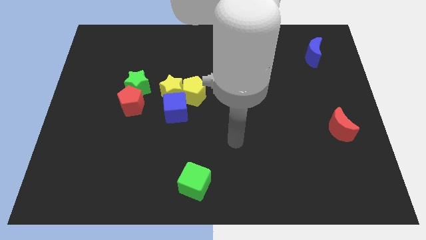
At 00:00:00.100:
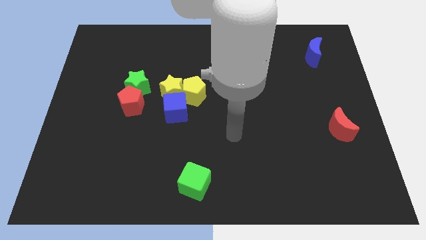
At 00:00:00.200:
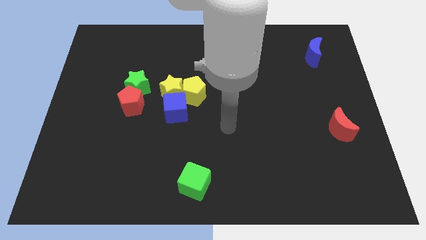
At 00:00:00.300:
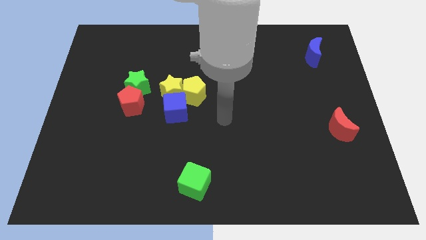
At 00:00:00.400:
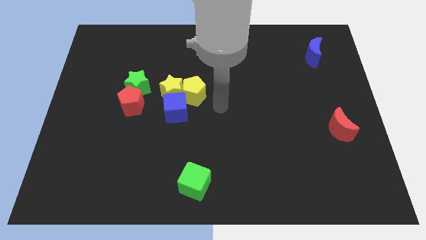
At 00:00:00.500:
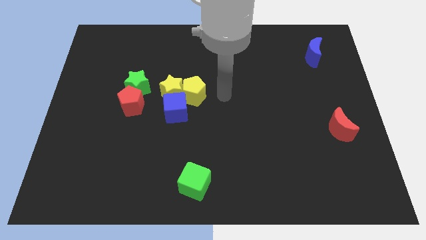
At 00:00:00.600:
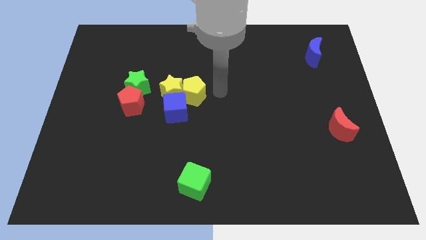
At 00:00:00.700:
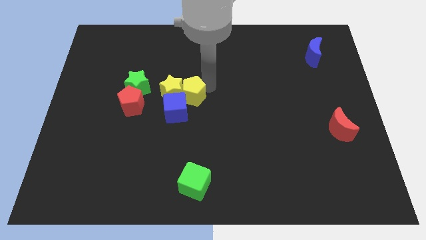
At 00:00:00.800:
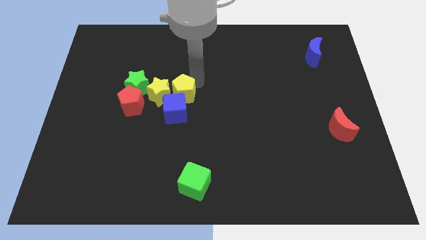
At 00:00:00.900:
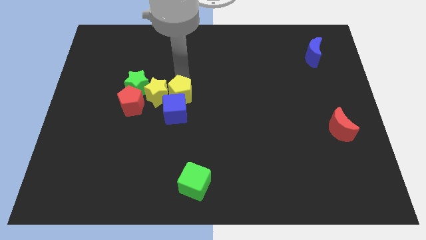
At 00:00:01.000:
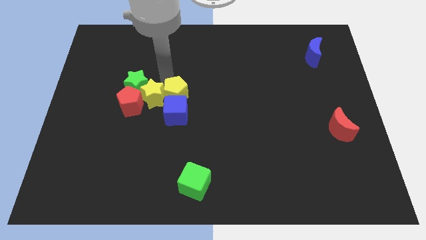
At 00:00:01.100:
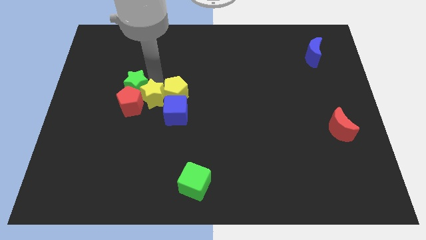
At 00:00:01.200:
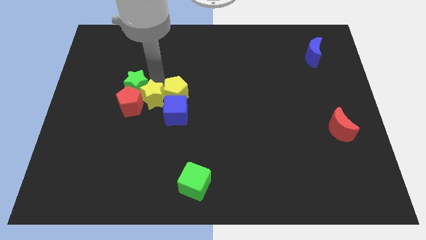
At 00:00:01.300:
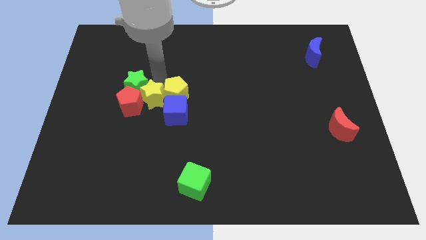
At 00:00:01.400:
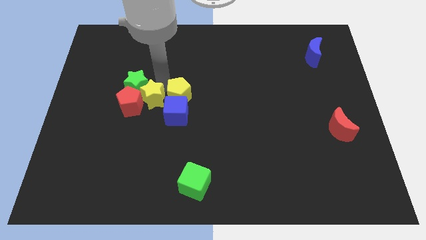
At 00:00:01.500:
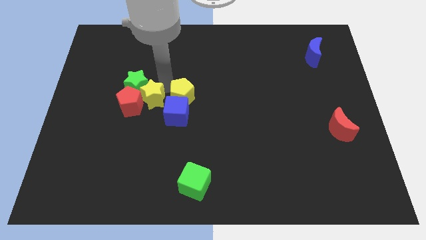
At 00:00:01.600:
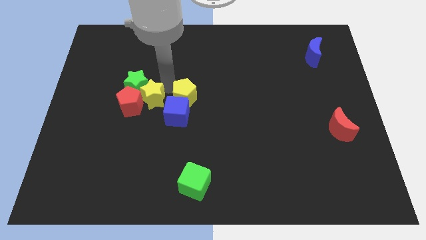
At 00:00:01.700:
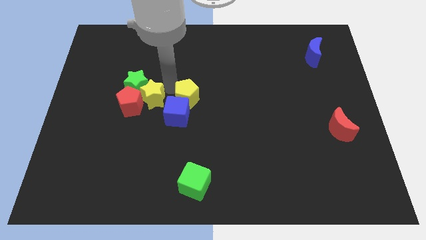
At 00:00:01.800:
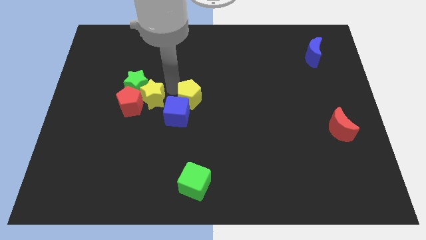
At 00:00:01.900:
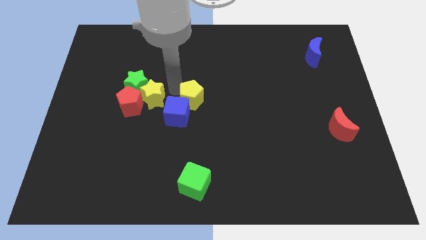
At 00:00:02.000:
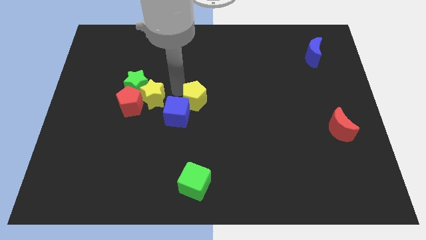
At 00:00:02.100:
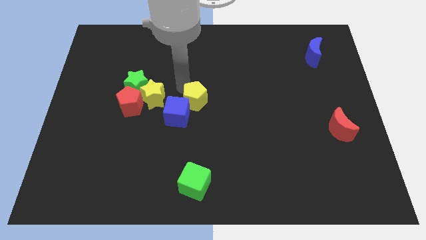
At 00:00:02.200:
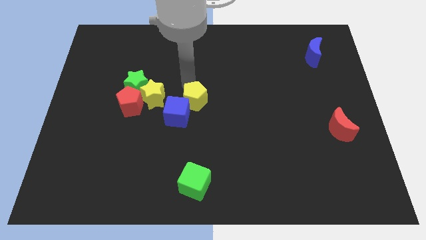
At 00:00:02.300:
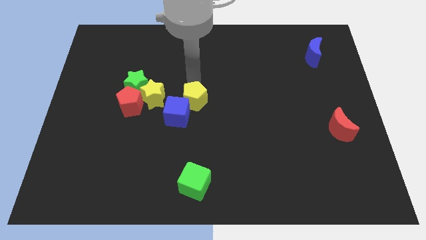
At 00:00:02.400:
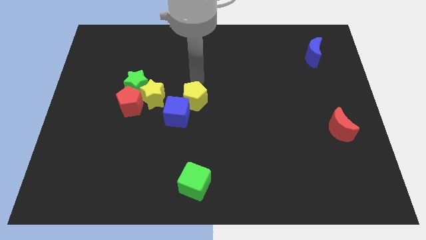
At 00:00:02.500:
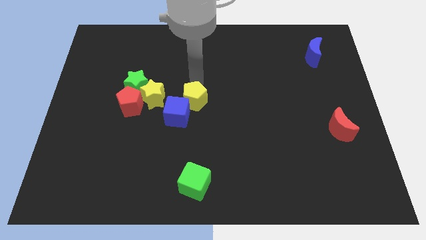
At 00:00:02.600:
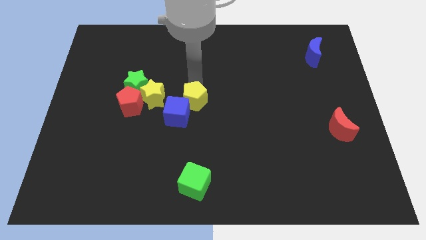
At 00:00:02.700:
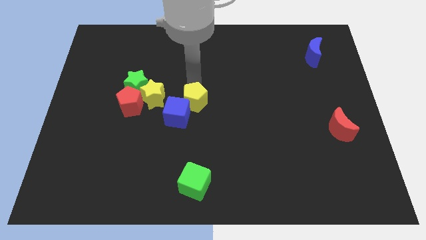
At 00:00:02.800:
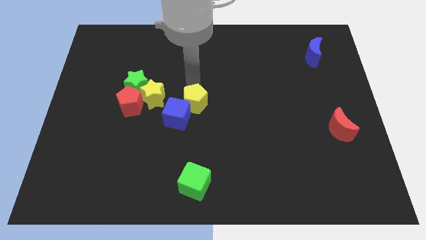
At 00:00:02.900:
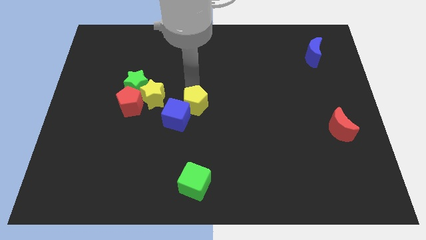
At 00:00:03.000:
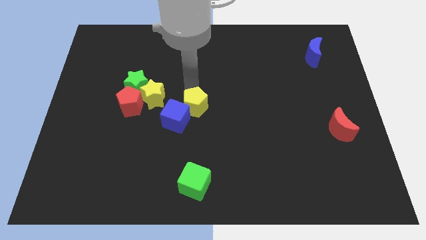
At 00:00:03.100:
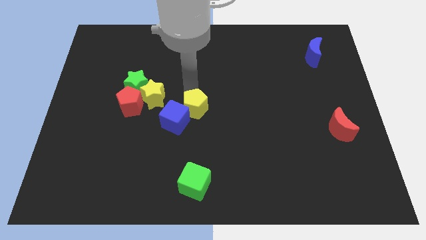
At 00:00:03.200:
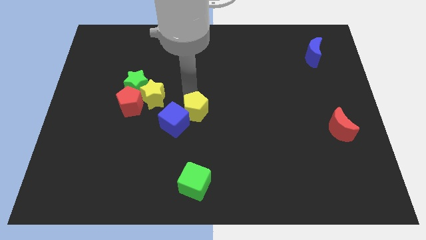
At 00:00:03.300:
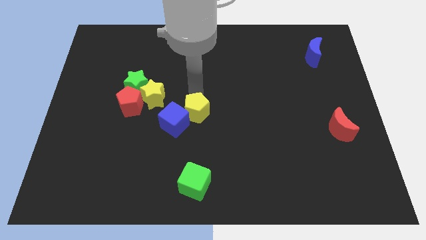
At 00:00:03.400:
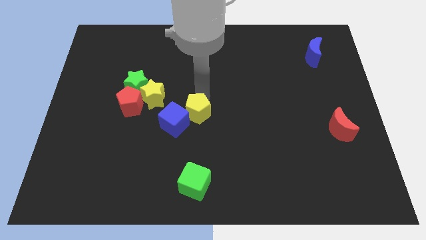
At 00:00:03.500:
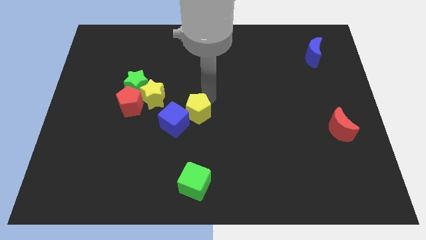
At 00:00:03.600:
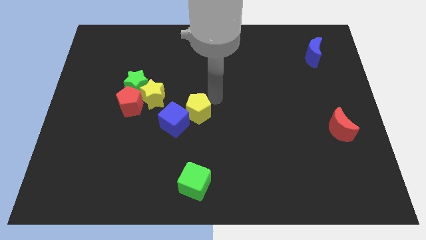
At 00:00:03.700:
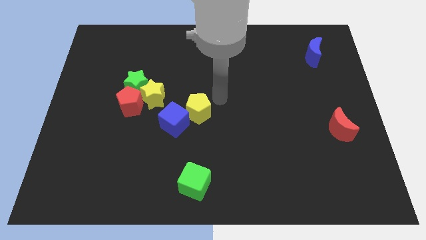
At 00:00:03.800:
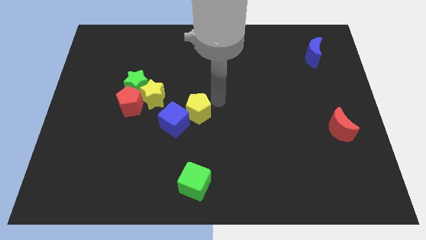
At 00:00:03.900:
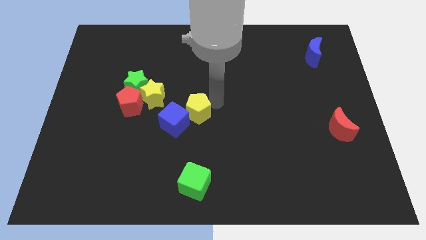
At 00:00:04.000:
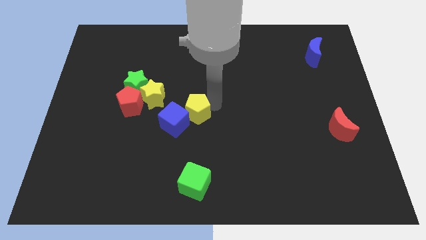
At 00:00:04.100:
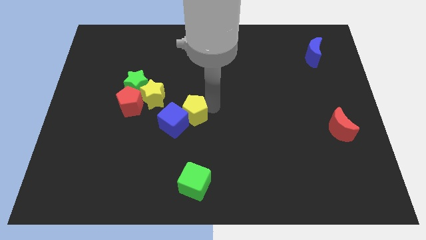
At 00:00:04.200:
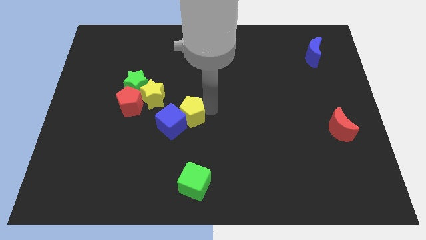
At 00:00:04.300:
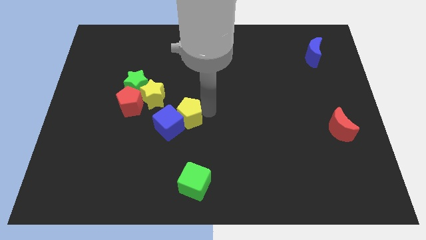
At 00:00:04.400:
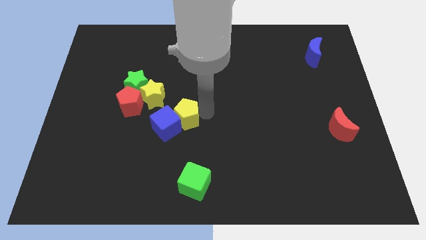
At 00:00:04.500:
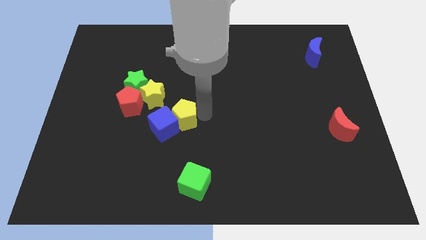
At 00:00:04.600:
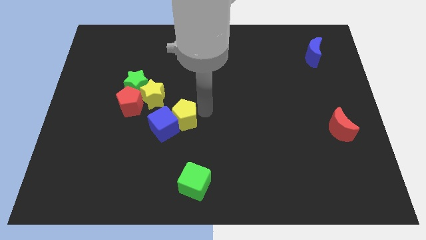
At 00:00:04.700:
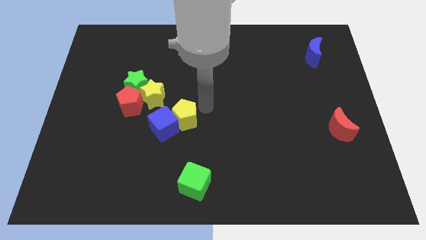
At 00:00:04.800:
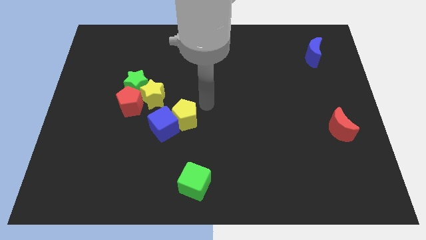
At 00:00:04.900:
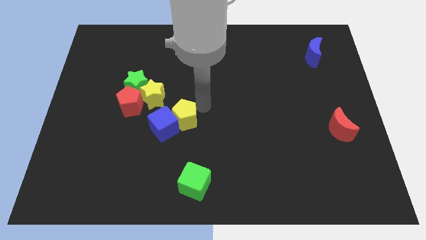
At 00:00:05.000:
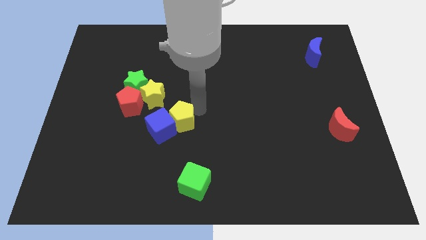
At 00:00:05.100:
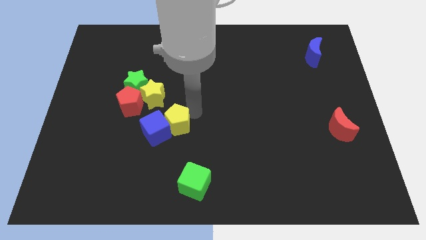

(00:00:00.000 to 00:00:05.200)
move the yellow pentagon down and to the left diagonally a little

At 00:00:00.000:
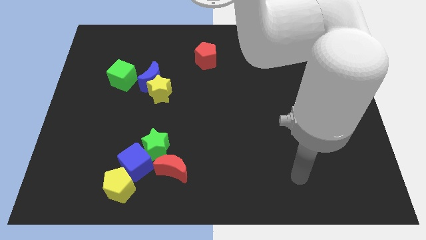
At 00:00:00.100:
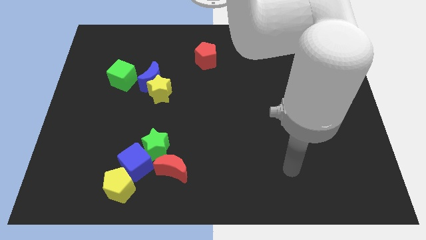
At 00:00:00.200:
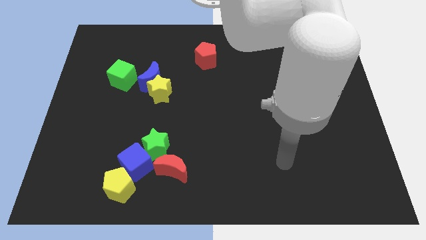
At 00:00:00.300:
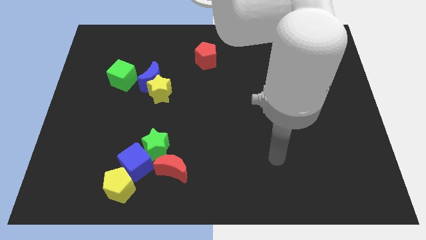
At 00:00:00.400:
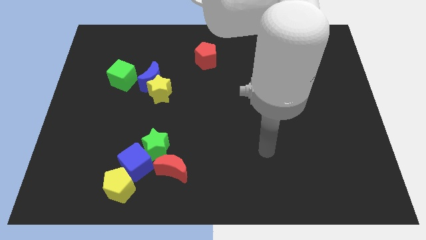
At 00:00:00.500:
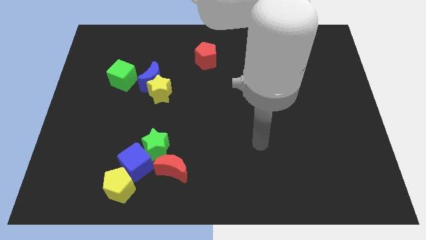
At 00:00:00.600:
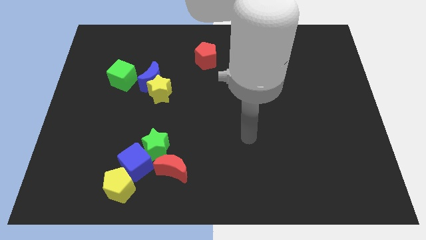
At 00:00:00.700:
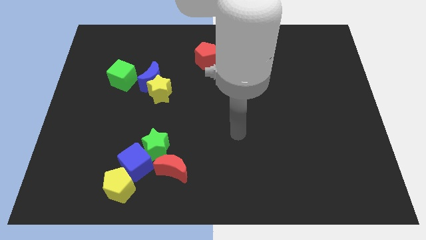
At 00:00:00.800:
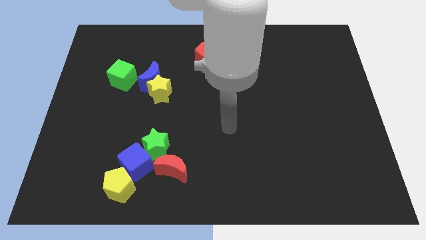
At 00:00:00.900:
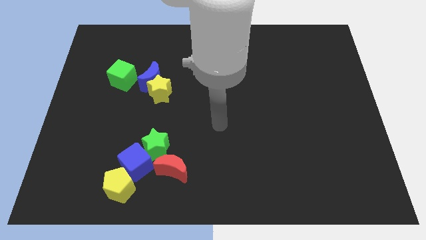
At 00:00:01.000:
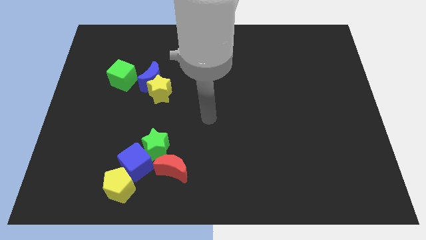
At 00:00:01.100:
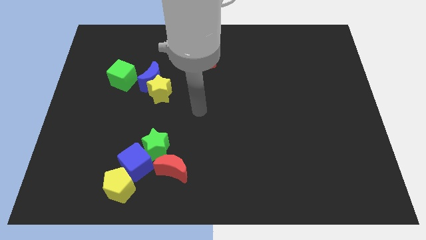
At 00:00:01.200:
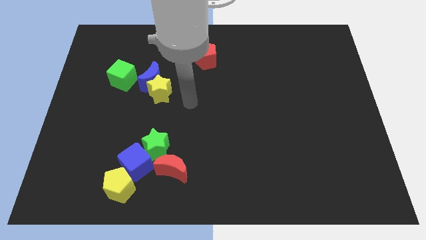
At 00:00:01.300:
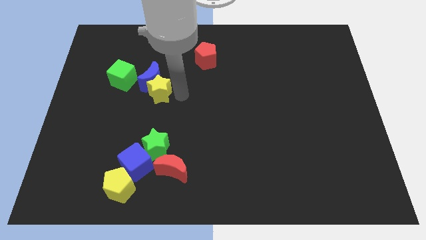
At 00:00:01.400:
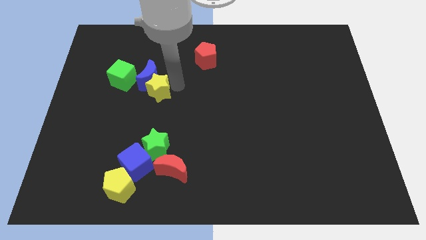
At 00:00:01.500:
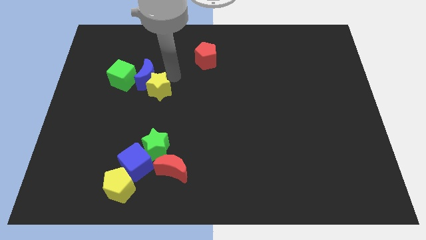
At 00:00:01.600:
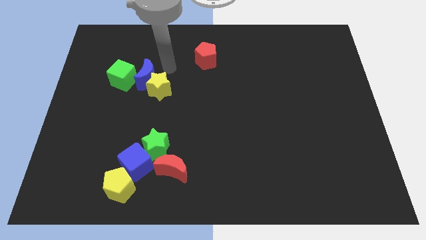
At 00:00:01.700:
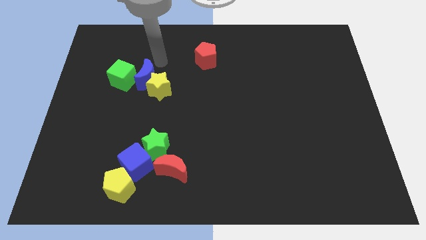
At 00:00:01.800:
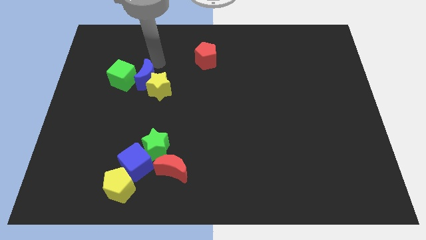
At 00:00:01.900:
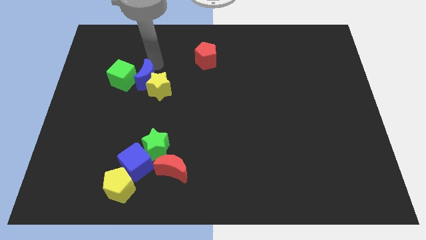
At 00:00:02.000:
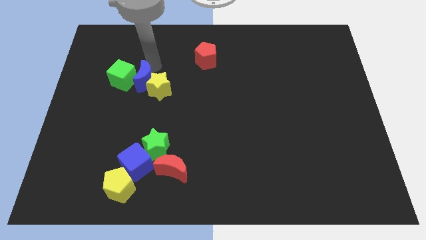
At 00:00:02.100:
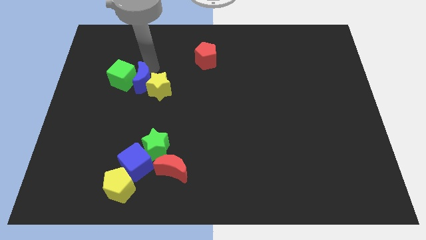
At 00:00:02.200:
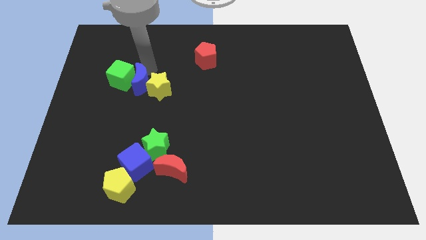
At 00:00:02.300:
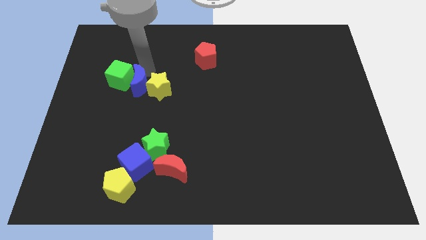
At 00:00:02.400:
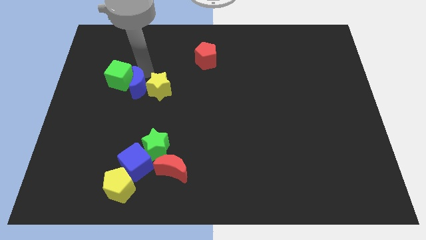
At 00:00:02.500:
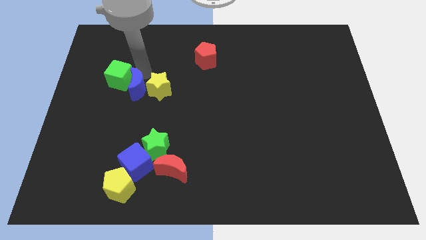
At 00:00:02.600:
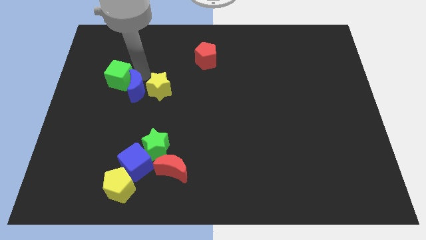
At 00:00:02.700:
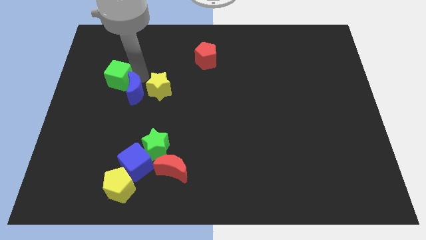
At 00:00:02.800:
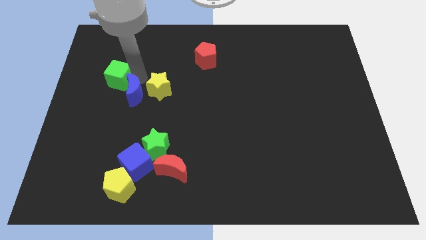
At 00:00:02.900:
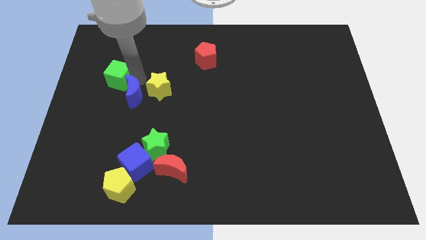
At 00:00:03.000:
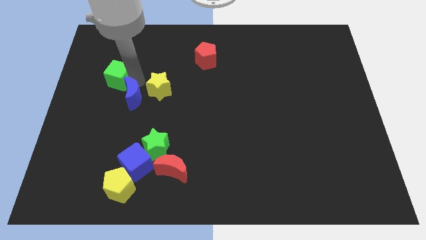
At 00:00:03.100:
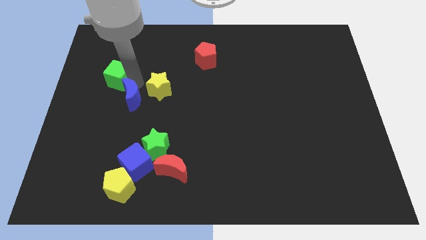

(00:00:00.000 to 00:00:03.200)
move the blue moon down and left diagonally a little
